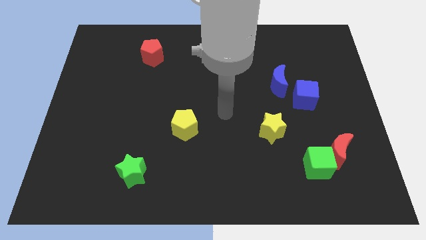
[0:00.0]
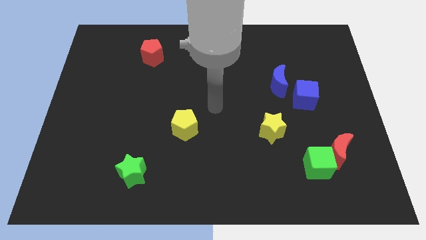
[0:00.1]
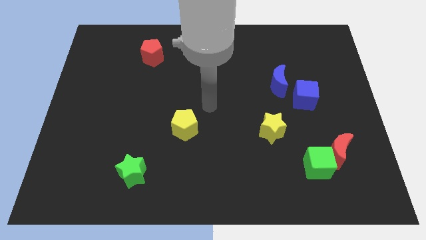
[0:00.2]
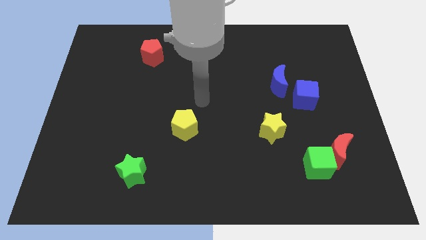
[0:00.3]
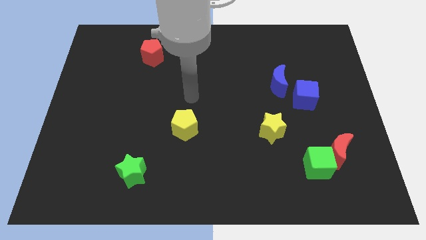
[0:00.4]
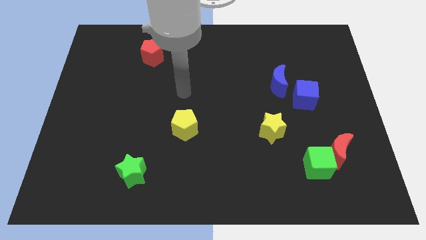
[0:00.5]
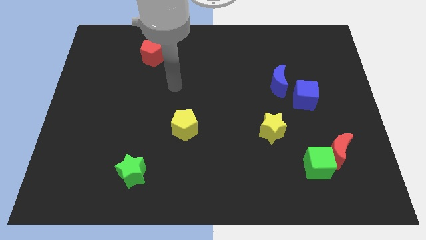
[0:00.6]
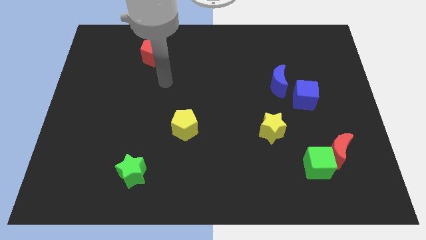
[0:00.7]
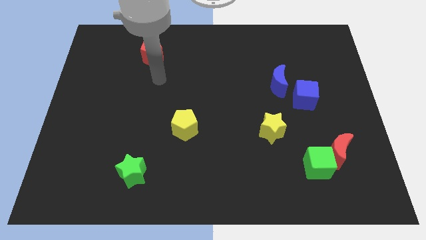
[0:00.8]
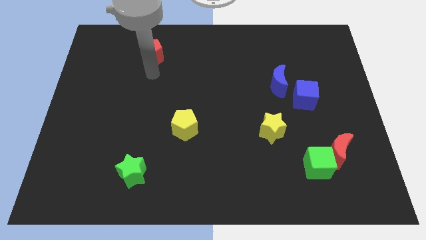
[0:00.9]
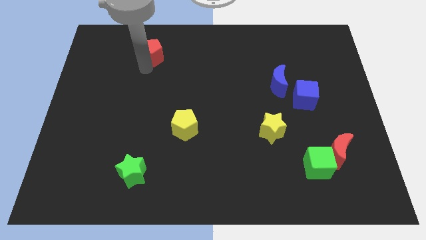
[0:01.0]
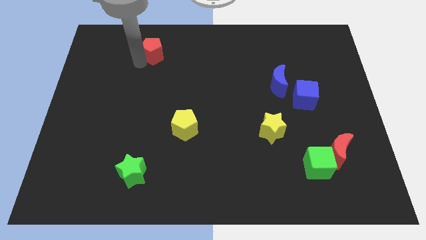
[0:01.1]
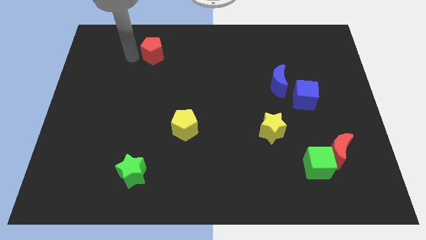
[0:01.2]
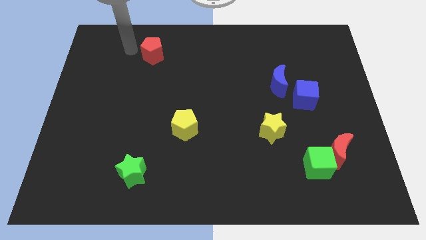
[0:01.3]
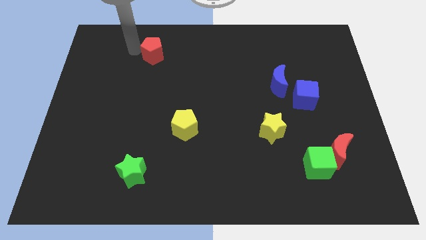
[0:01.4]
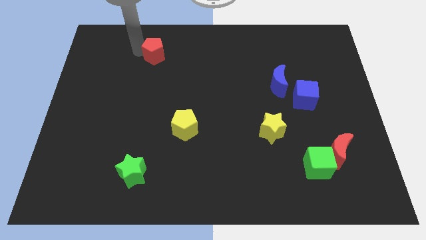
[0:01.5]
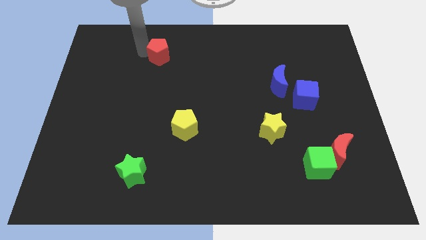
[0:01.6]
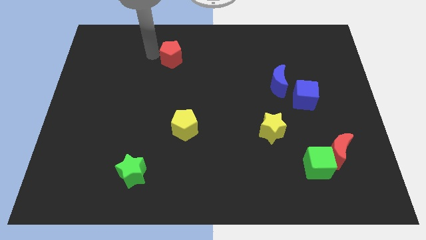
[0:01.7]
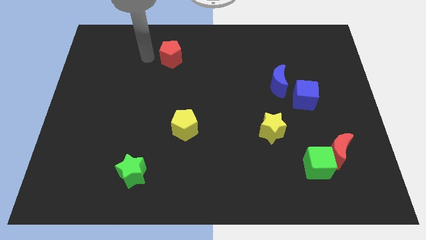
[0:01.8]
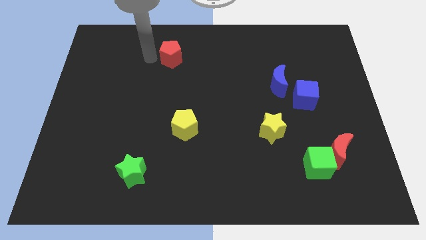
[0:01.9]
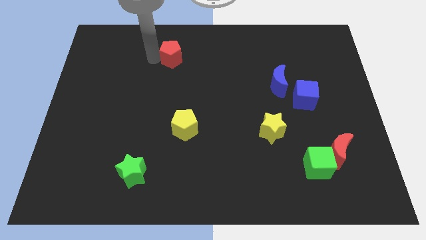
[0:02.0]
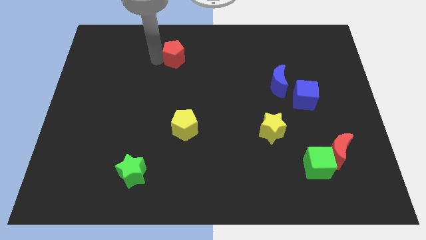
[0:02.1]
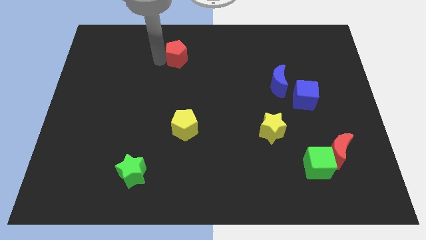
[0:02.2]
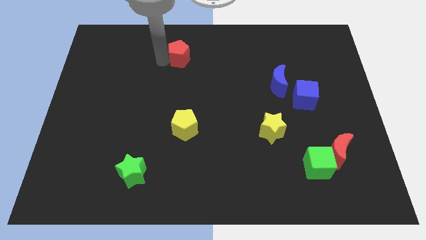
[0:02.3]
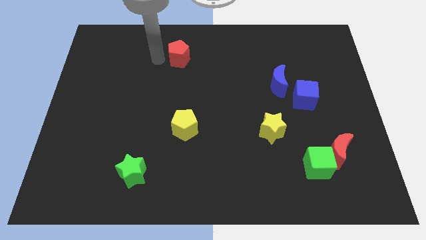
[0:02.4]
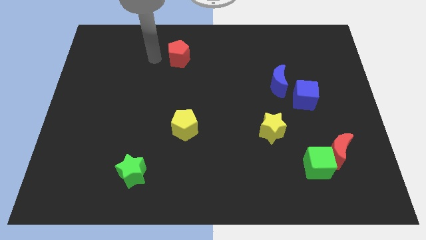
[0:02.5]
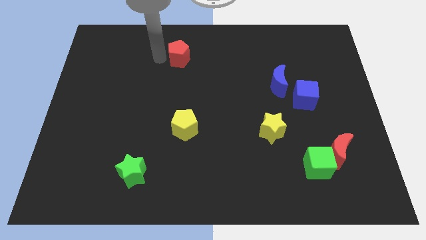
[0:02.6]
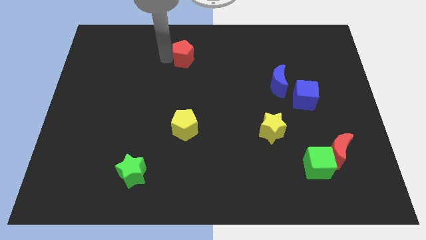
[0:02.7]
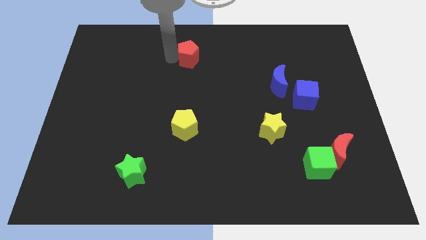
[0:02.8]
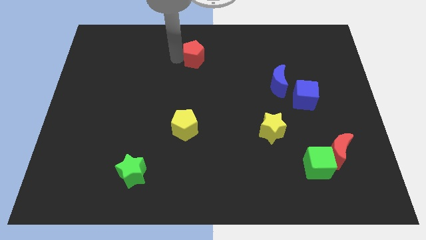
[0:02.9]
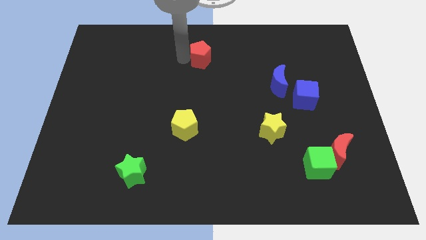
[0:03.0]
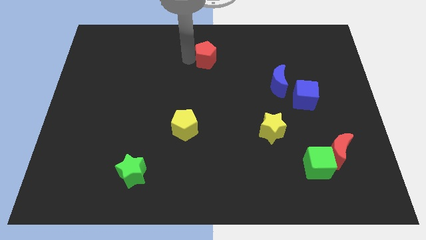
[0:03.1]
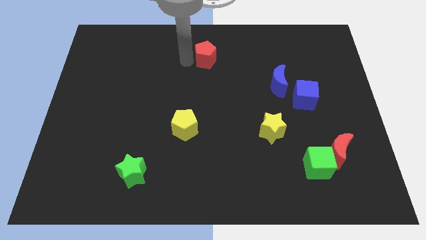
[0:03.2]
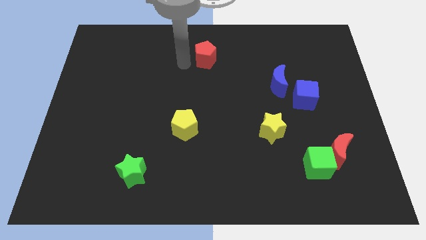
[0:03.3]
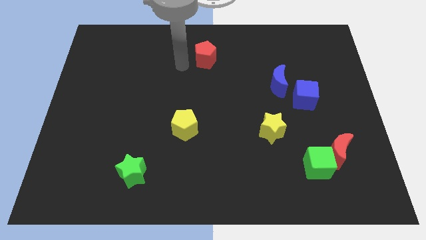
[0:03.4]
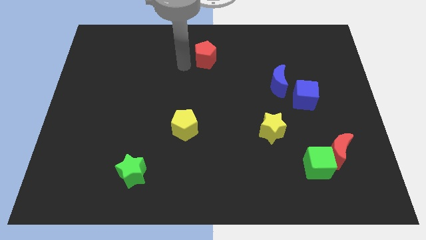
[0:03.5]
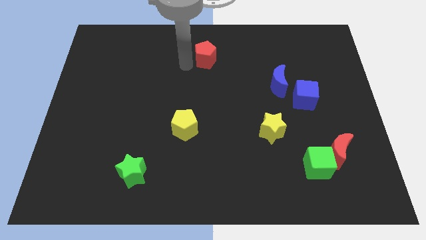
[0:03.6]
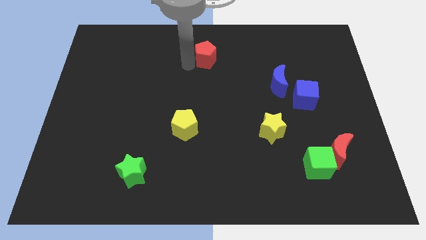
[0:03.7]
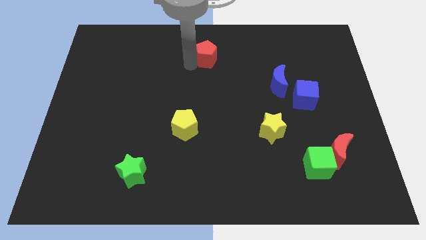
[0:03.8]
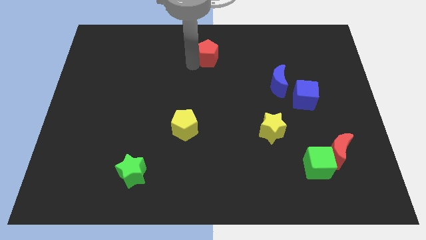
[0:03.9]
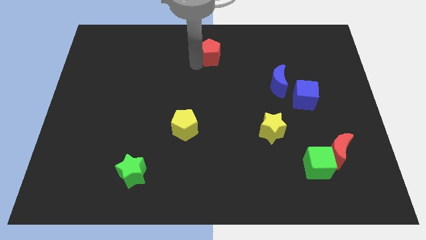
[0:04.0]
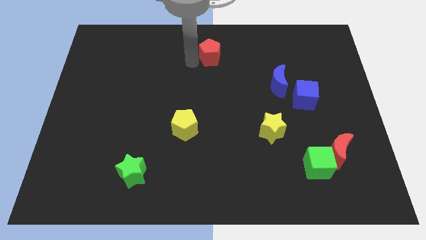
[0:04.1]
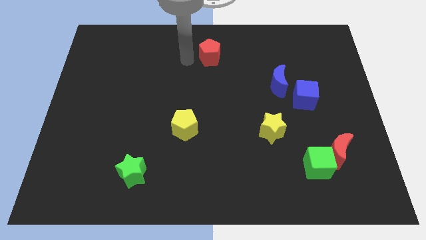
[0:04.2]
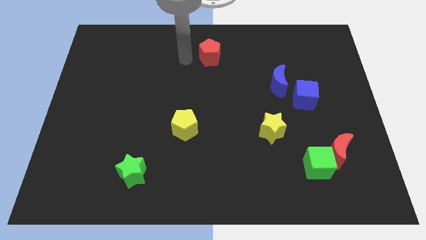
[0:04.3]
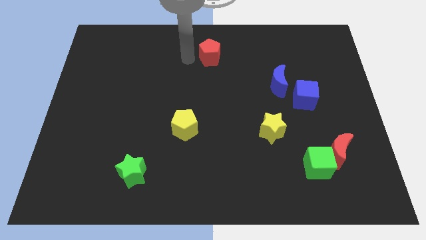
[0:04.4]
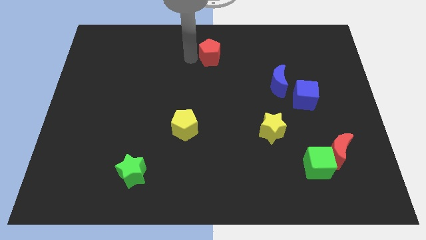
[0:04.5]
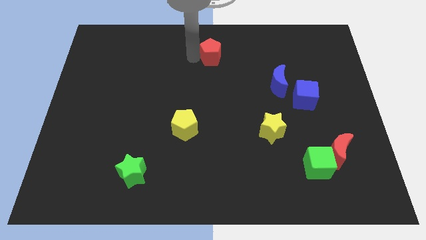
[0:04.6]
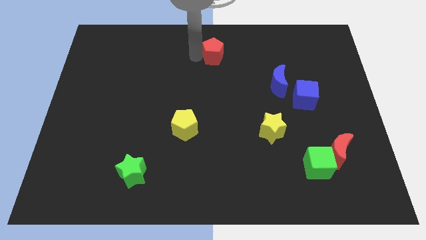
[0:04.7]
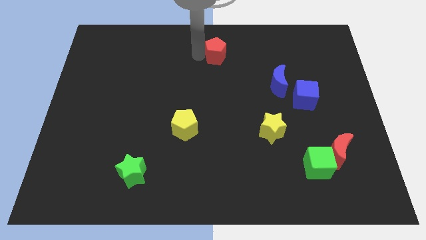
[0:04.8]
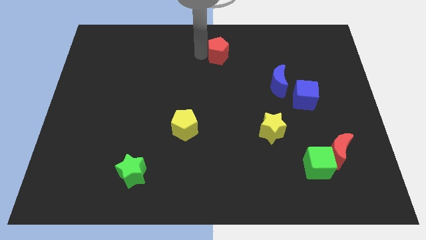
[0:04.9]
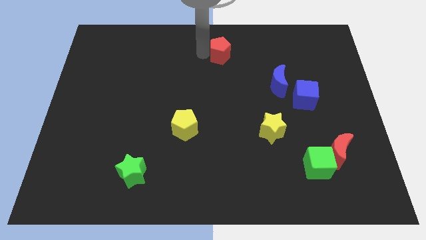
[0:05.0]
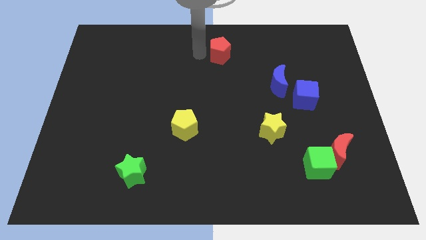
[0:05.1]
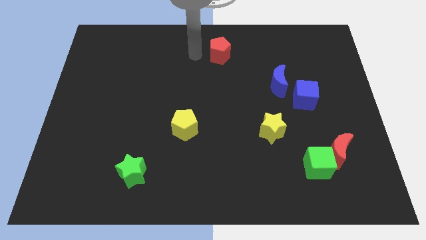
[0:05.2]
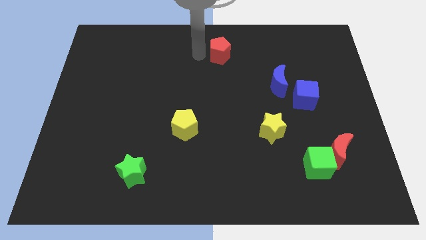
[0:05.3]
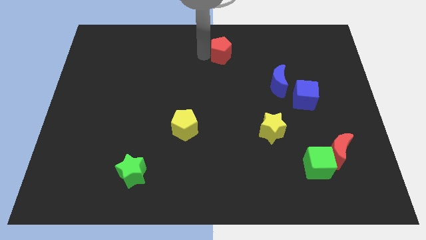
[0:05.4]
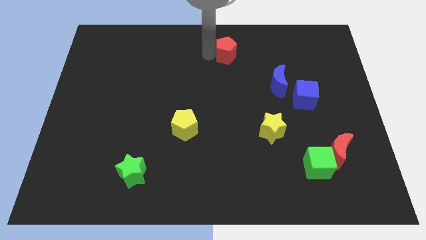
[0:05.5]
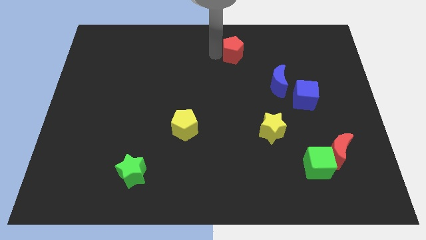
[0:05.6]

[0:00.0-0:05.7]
slide the red pentagon to the right

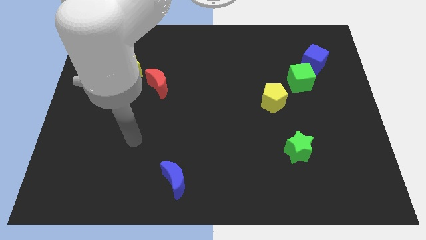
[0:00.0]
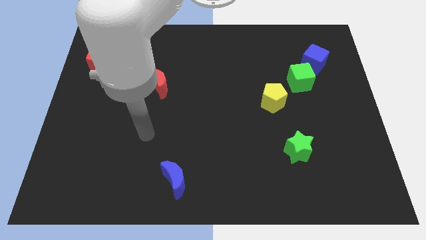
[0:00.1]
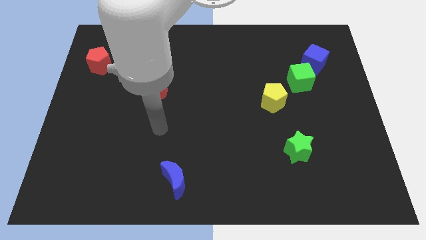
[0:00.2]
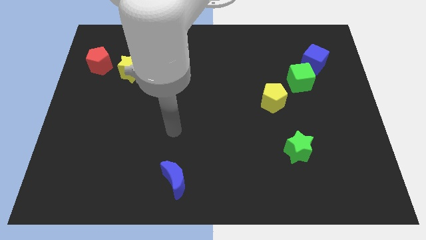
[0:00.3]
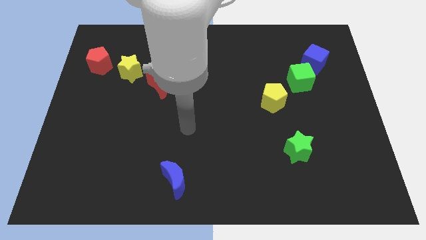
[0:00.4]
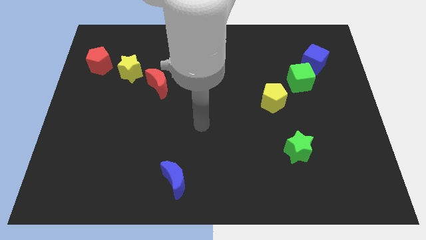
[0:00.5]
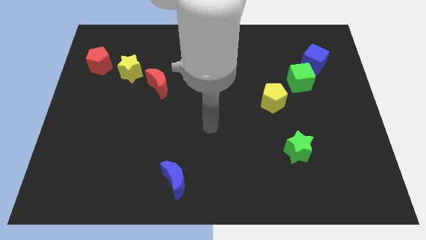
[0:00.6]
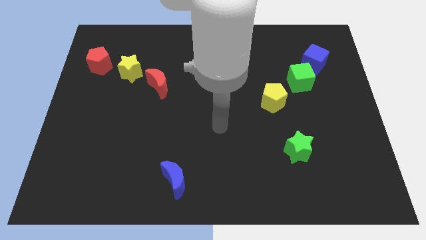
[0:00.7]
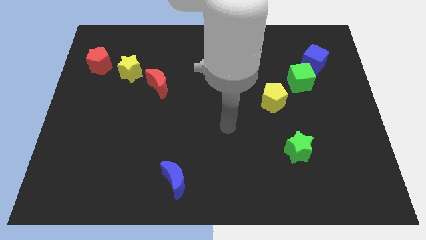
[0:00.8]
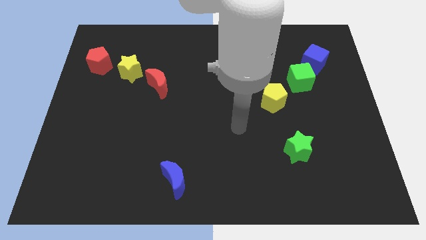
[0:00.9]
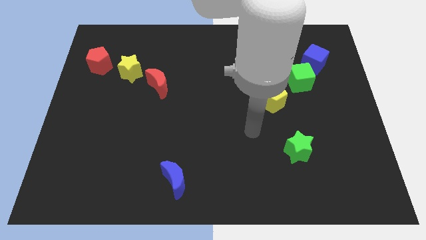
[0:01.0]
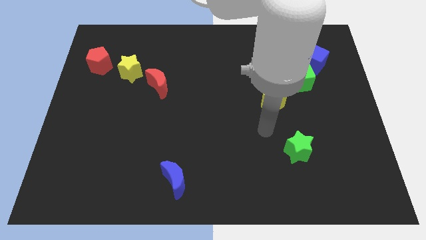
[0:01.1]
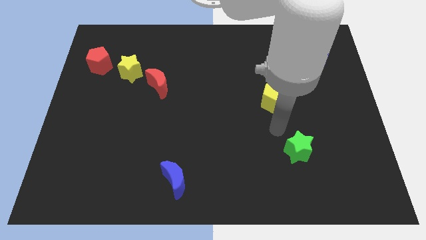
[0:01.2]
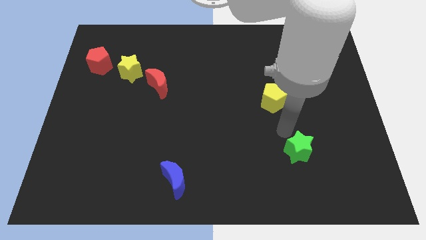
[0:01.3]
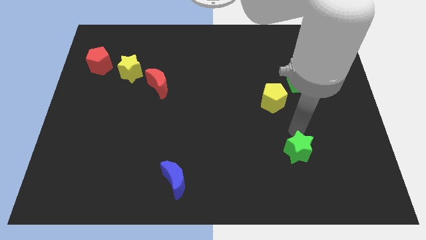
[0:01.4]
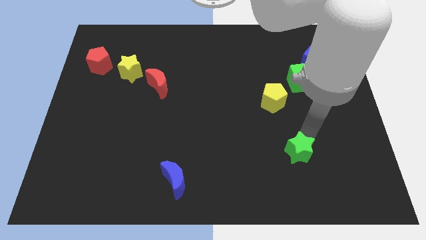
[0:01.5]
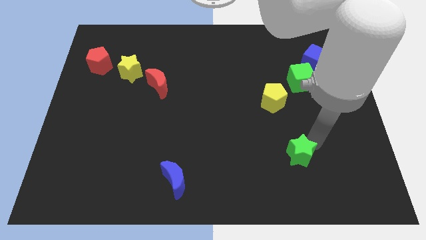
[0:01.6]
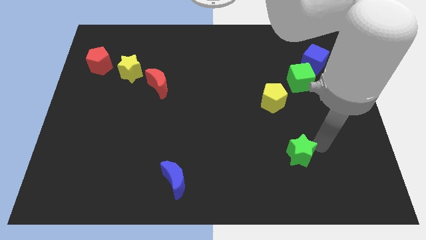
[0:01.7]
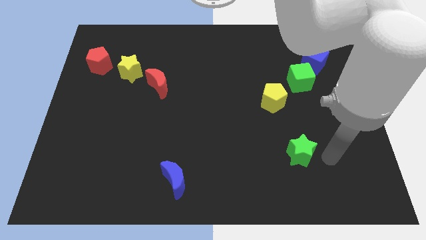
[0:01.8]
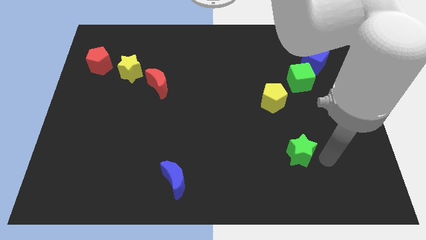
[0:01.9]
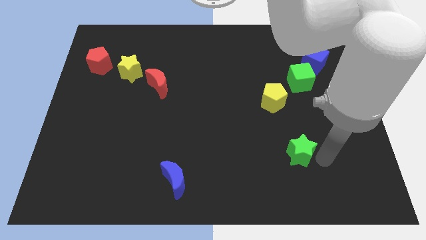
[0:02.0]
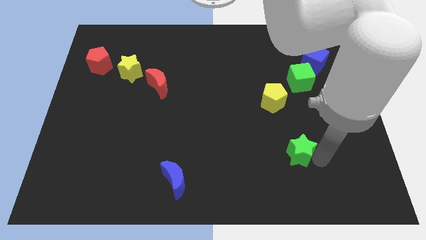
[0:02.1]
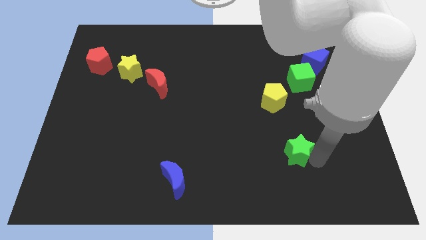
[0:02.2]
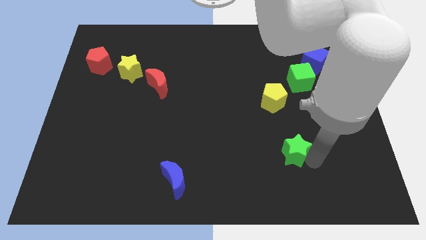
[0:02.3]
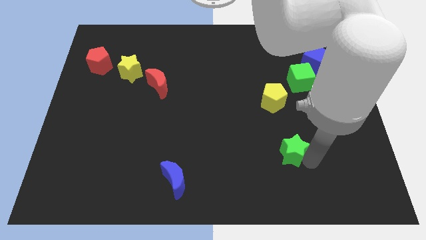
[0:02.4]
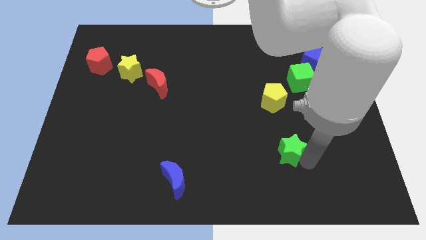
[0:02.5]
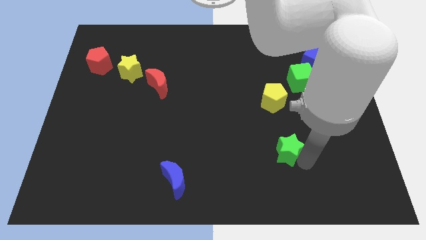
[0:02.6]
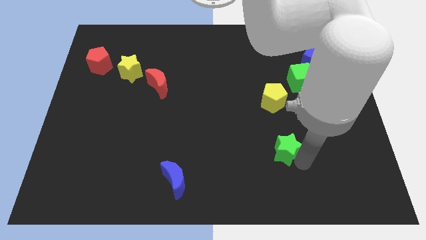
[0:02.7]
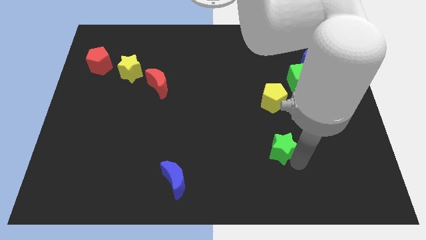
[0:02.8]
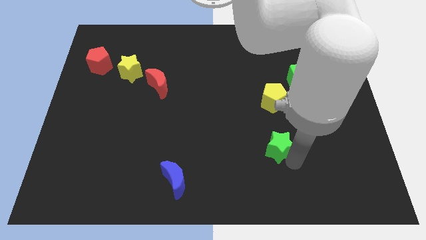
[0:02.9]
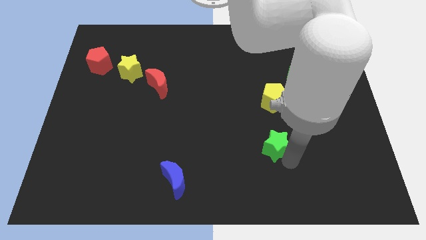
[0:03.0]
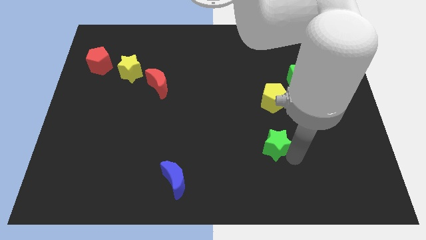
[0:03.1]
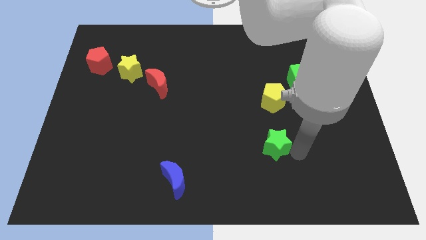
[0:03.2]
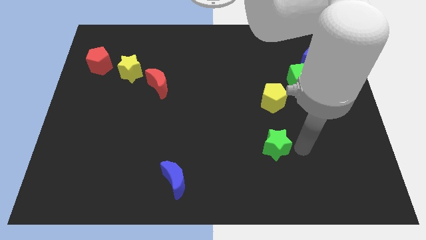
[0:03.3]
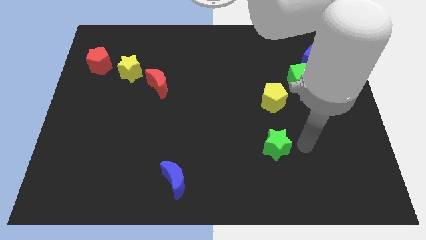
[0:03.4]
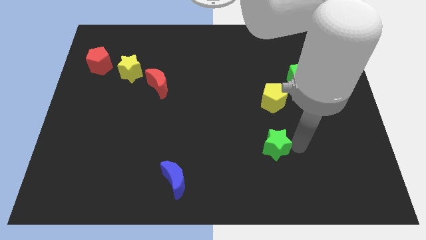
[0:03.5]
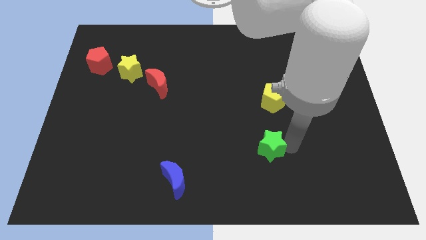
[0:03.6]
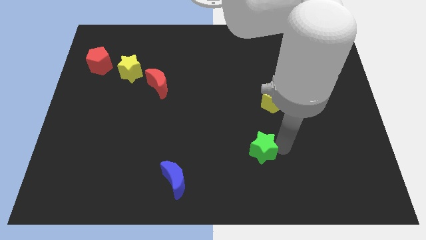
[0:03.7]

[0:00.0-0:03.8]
slide the green star slightly to the left
